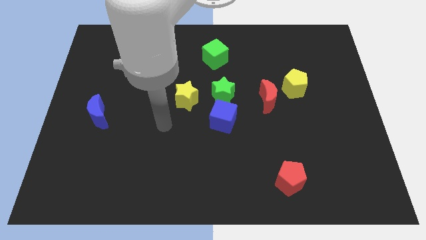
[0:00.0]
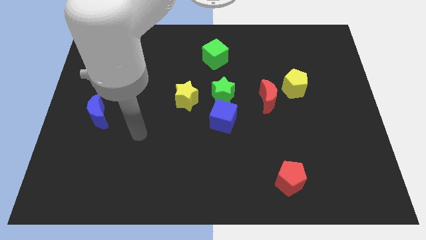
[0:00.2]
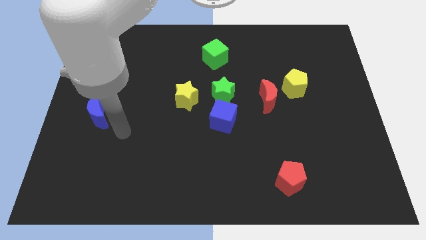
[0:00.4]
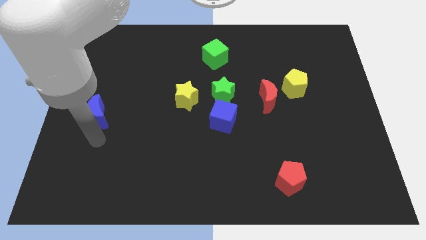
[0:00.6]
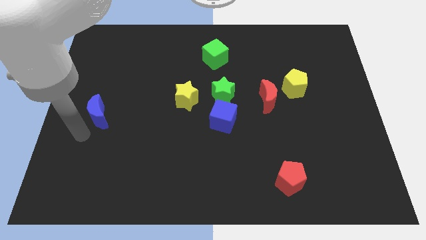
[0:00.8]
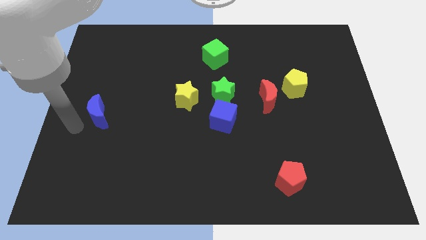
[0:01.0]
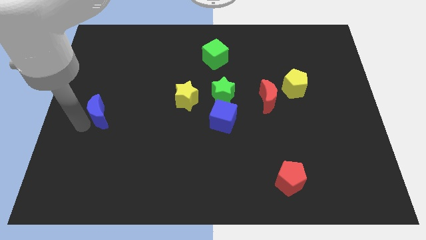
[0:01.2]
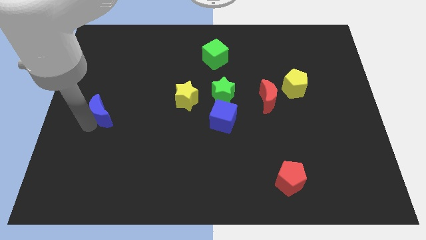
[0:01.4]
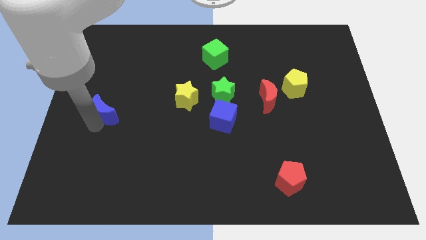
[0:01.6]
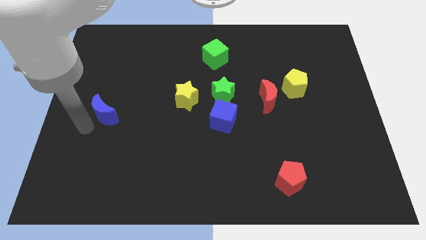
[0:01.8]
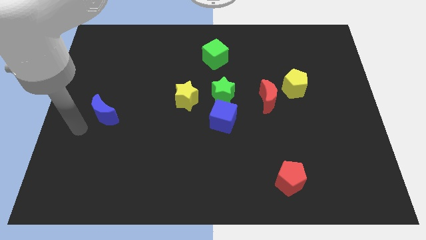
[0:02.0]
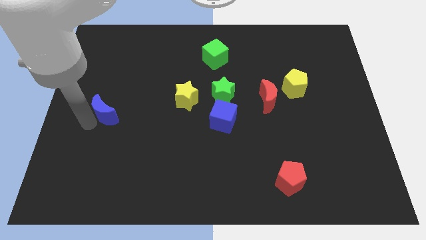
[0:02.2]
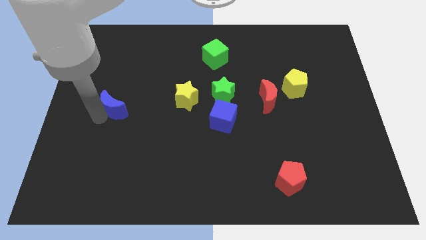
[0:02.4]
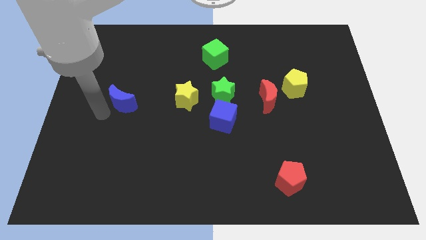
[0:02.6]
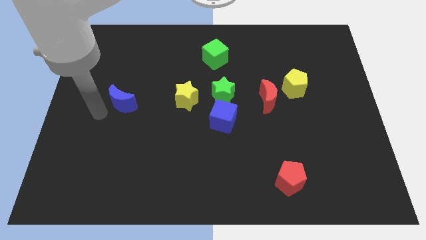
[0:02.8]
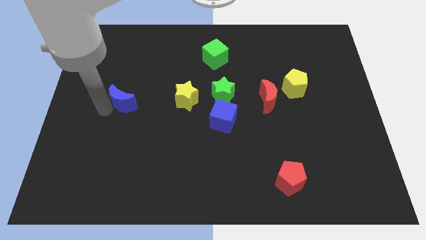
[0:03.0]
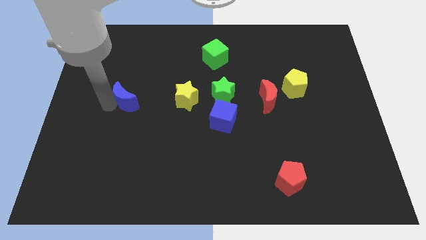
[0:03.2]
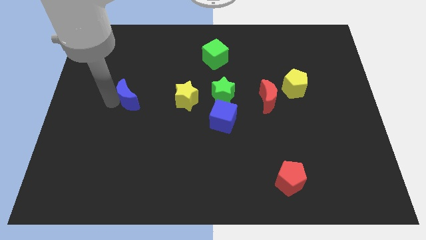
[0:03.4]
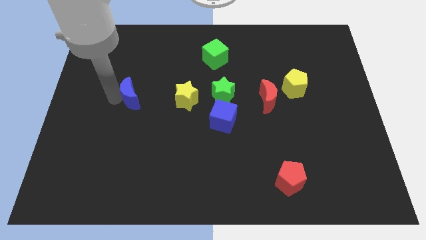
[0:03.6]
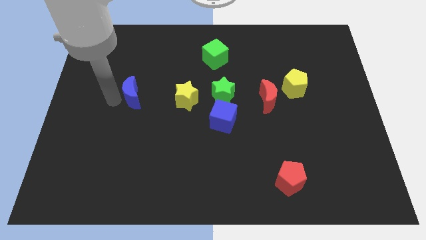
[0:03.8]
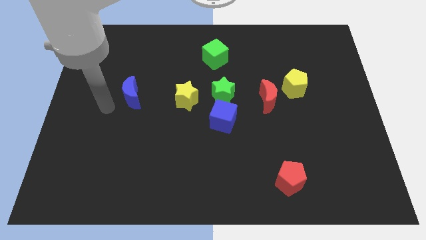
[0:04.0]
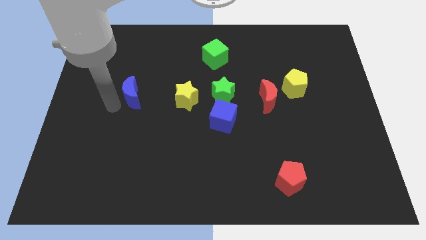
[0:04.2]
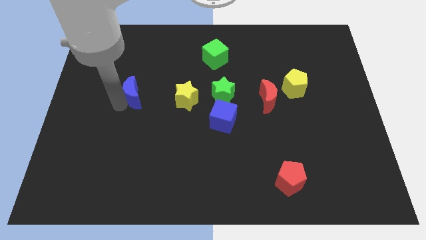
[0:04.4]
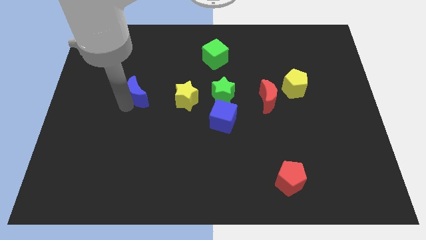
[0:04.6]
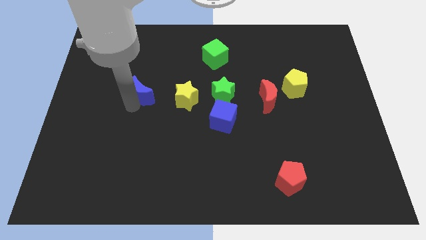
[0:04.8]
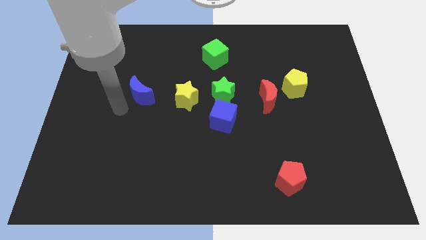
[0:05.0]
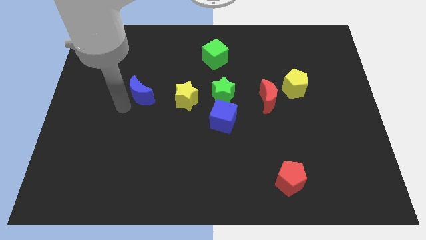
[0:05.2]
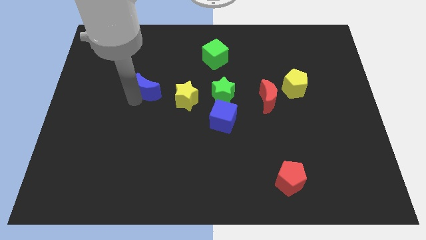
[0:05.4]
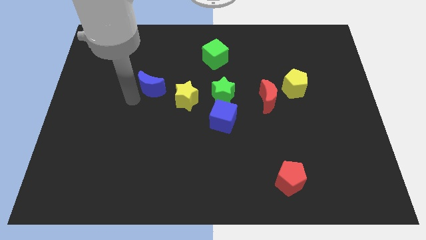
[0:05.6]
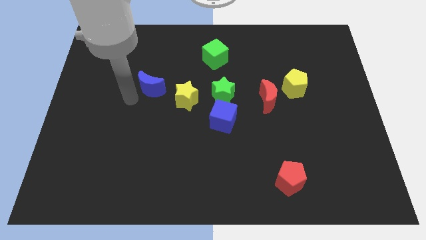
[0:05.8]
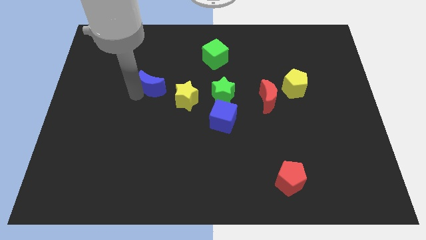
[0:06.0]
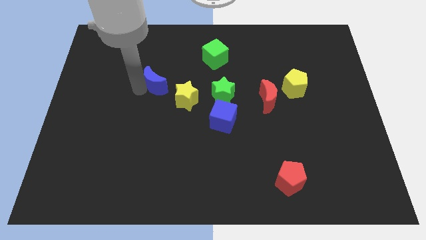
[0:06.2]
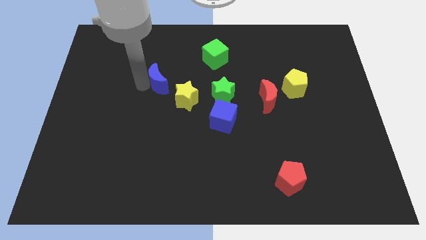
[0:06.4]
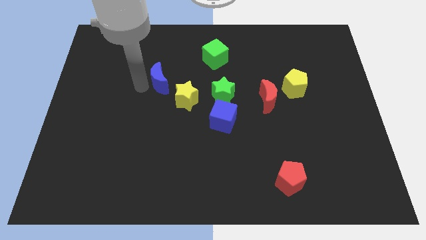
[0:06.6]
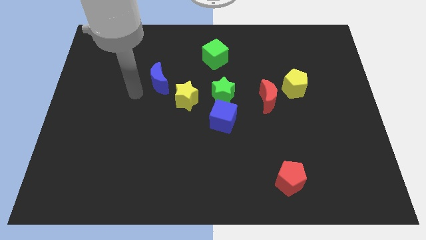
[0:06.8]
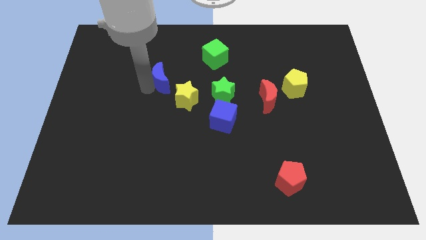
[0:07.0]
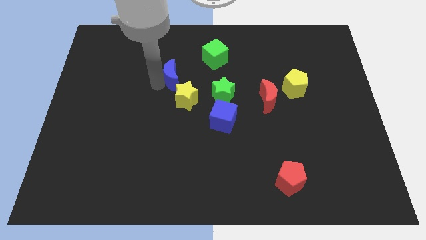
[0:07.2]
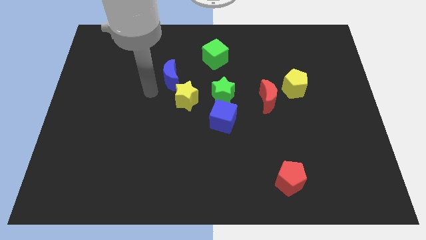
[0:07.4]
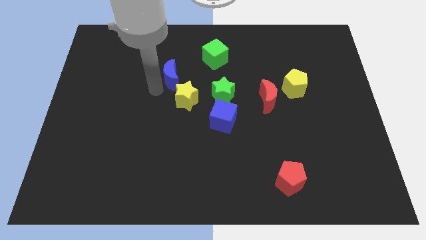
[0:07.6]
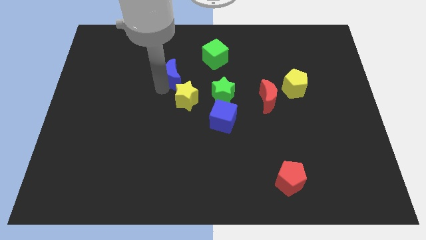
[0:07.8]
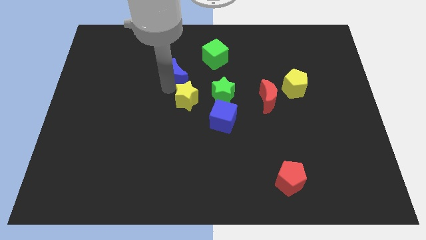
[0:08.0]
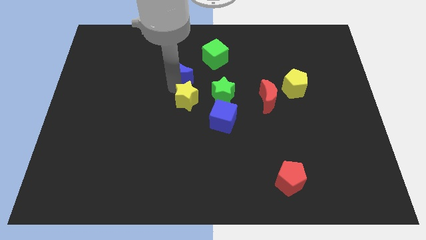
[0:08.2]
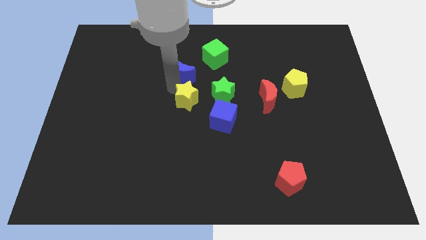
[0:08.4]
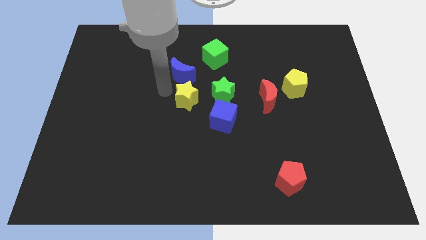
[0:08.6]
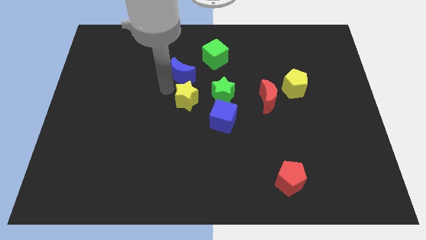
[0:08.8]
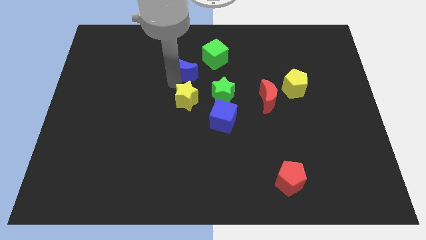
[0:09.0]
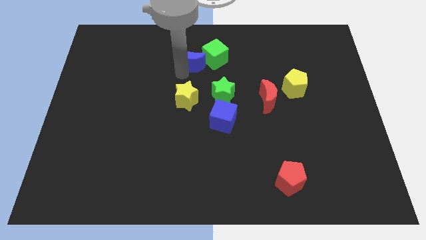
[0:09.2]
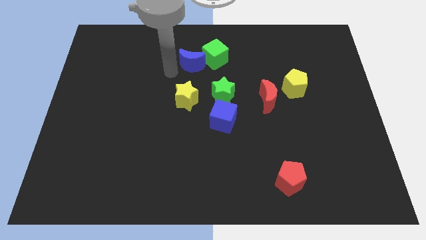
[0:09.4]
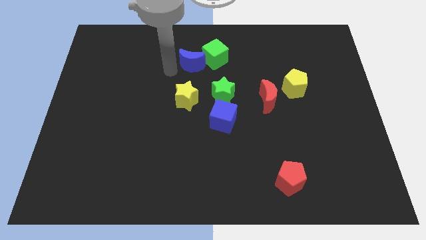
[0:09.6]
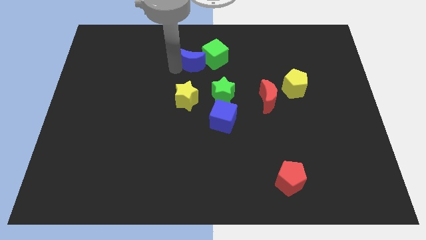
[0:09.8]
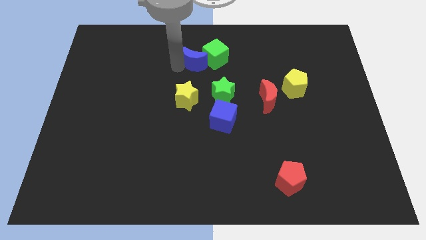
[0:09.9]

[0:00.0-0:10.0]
push the blue moon to the green cube

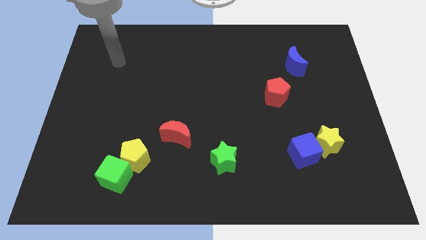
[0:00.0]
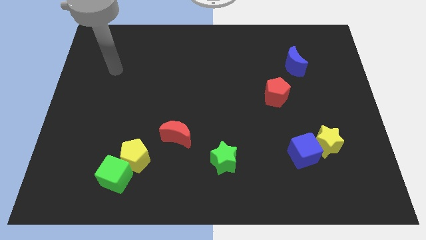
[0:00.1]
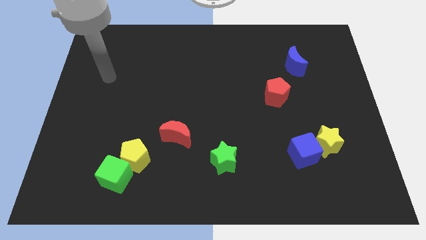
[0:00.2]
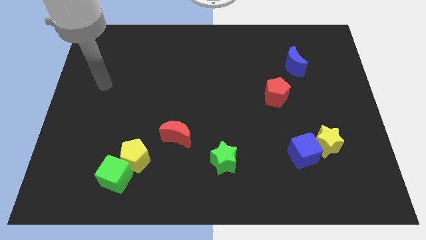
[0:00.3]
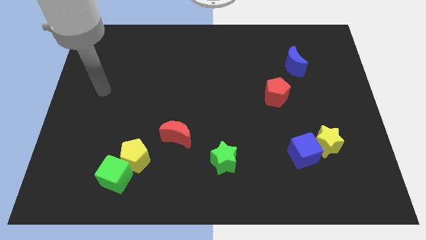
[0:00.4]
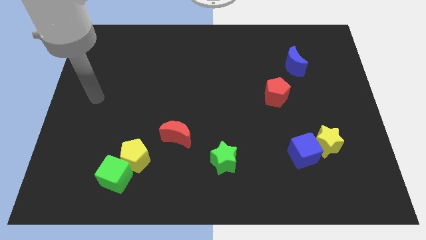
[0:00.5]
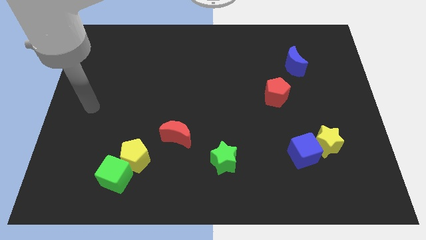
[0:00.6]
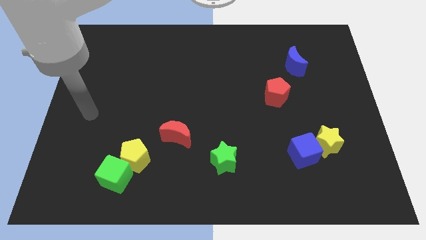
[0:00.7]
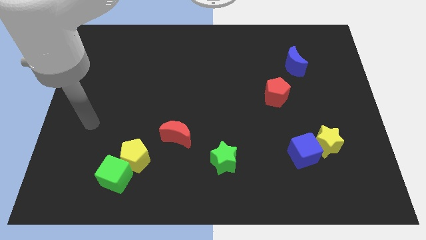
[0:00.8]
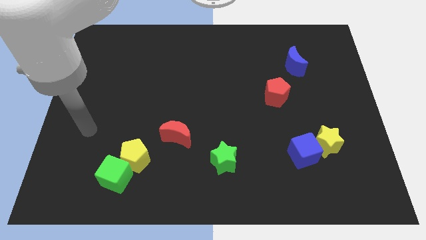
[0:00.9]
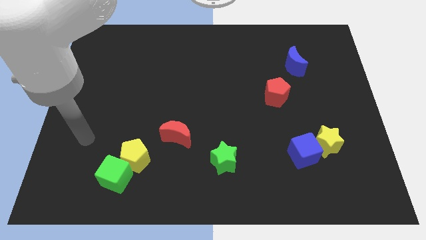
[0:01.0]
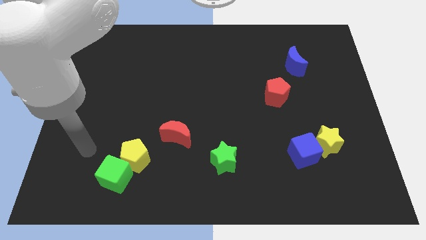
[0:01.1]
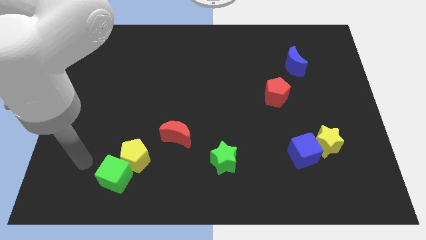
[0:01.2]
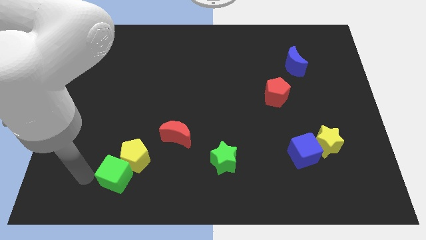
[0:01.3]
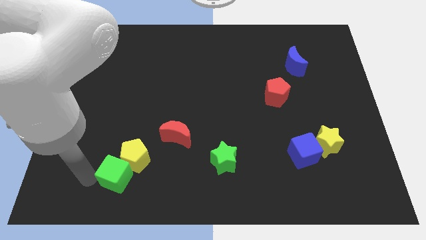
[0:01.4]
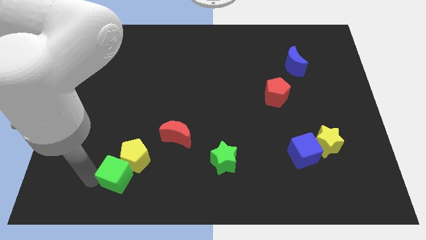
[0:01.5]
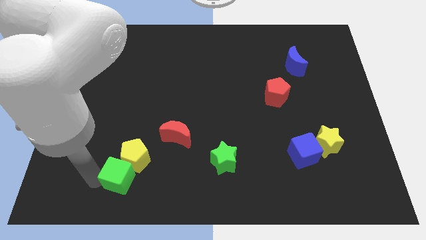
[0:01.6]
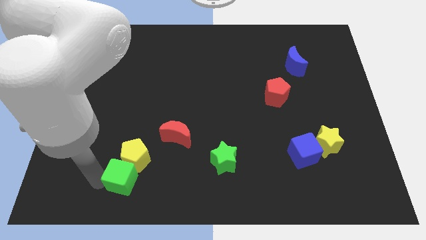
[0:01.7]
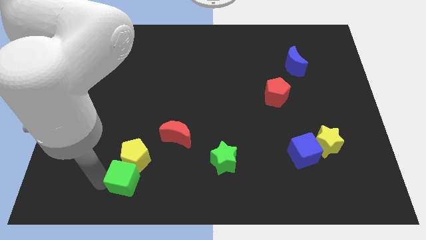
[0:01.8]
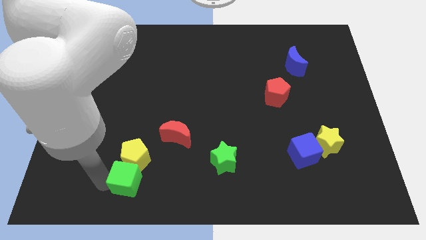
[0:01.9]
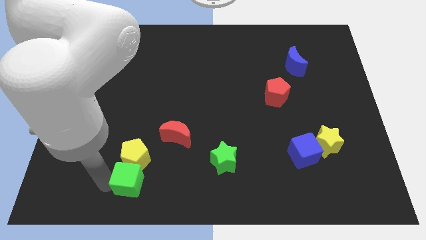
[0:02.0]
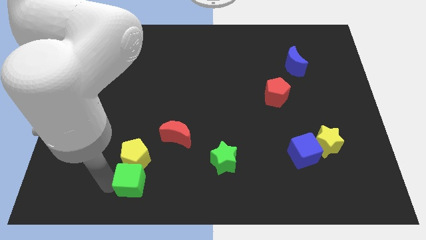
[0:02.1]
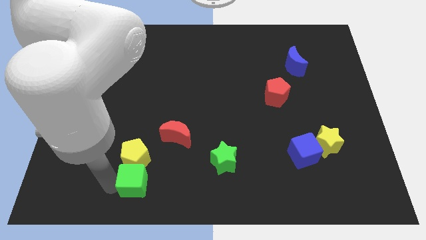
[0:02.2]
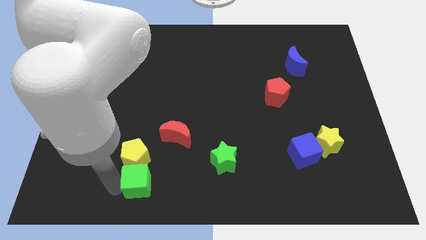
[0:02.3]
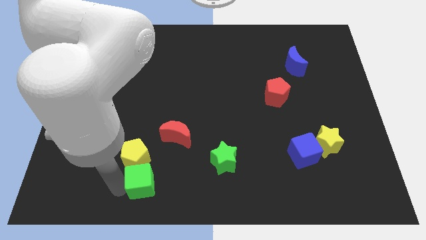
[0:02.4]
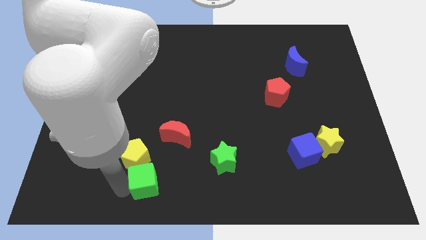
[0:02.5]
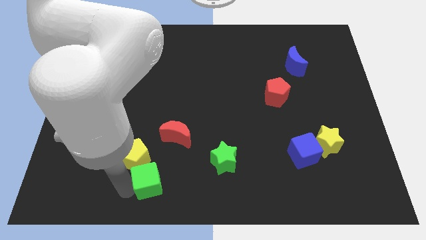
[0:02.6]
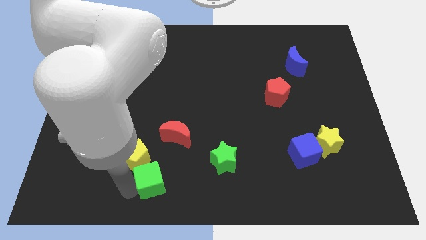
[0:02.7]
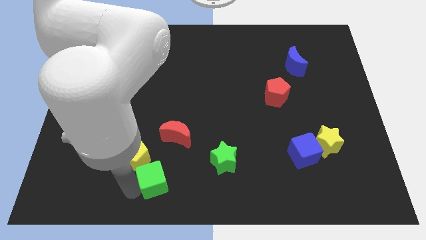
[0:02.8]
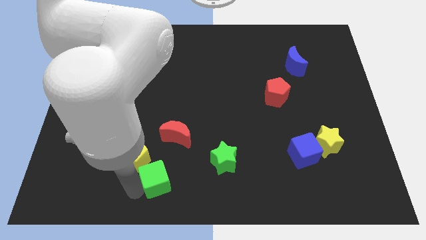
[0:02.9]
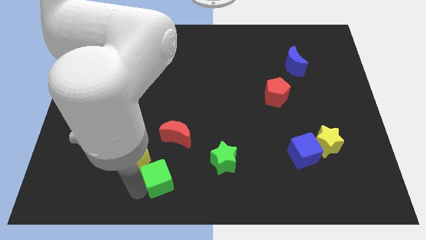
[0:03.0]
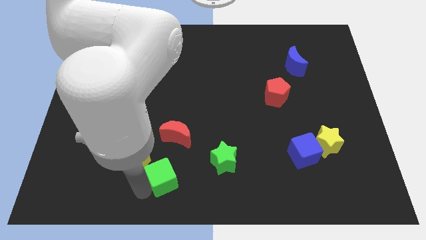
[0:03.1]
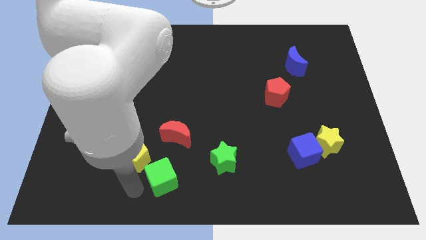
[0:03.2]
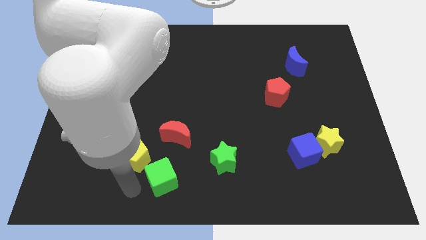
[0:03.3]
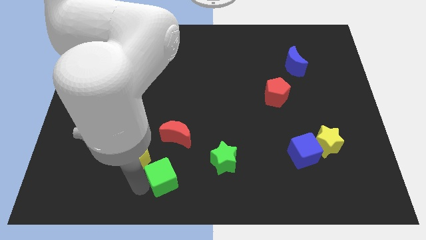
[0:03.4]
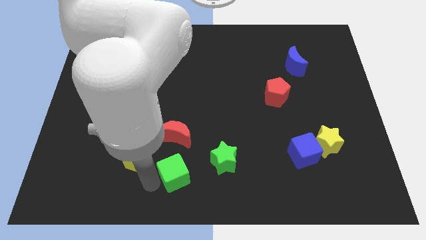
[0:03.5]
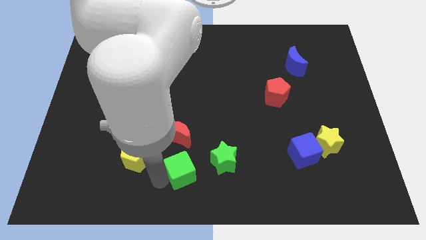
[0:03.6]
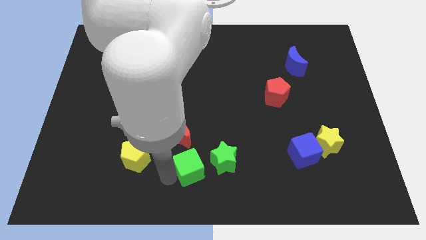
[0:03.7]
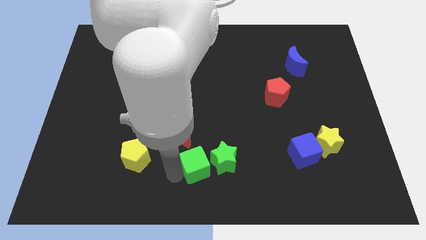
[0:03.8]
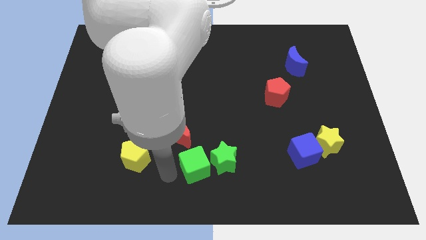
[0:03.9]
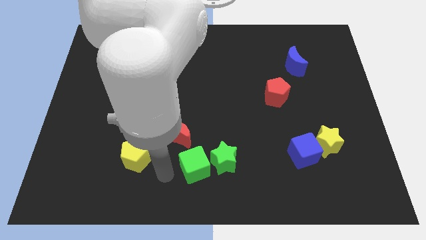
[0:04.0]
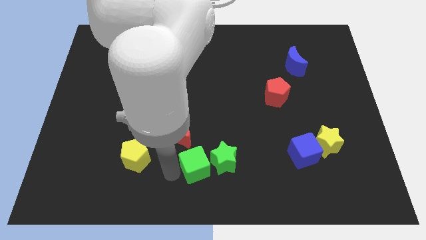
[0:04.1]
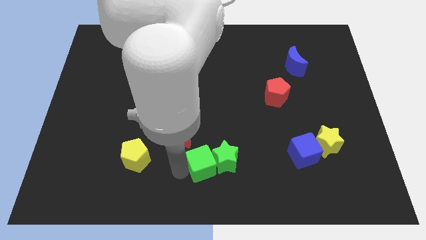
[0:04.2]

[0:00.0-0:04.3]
move the green cube close to the green star
